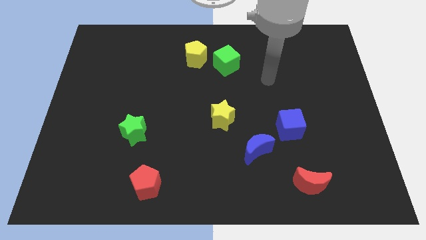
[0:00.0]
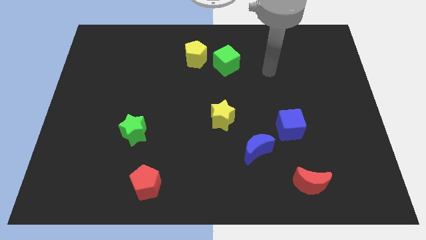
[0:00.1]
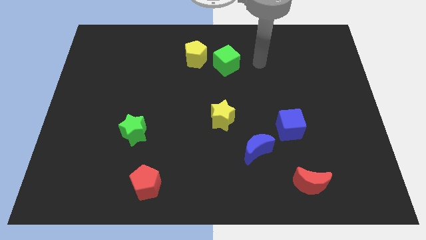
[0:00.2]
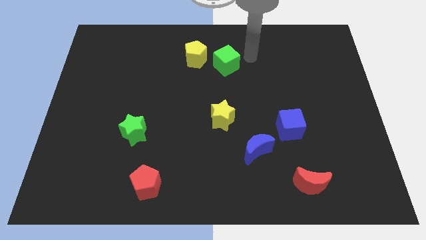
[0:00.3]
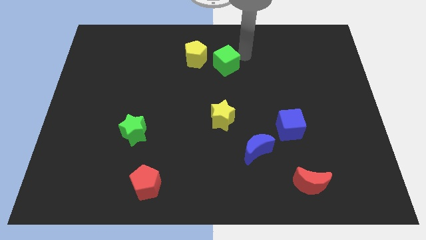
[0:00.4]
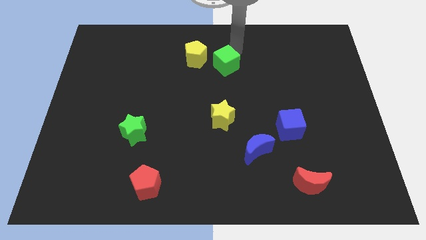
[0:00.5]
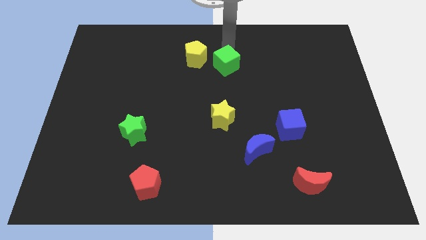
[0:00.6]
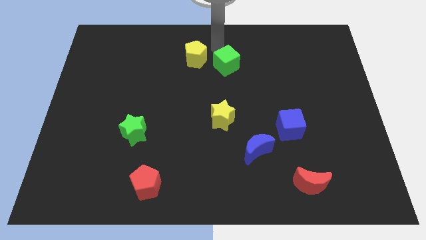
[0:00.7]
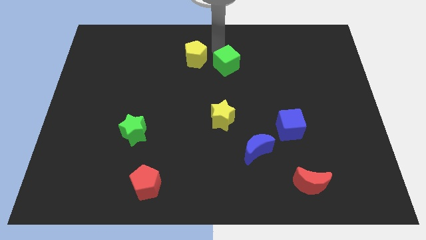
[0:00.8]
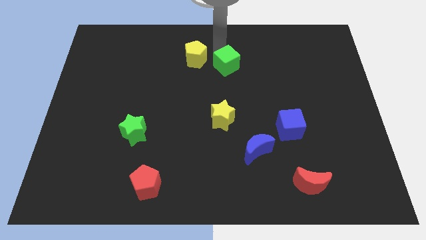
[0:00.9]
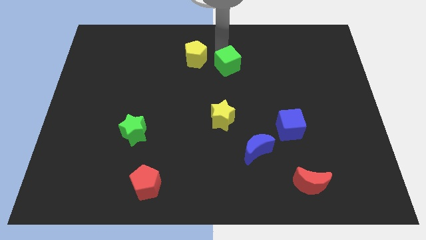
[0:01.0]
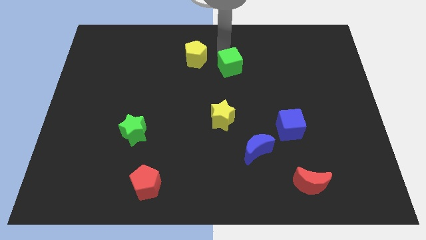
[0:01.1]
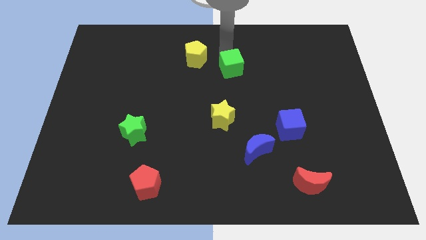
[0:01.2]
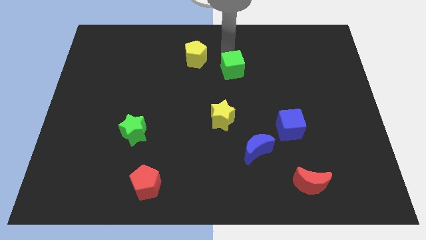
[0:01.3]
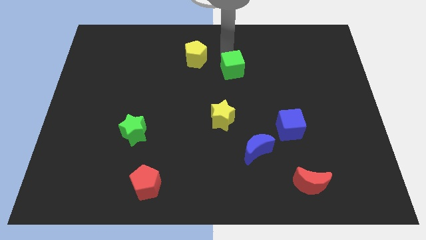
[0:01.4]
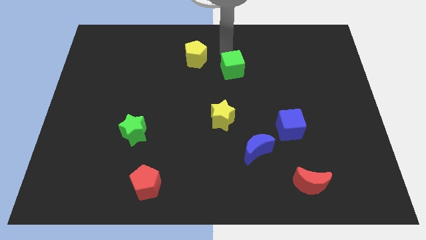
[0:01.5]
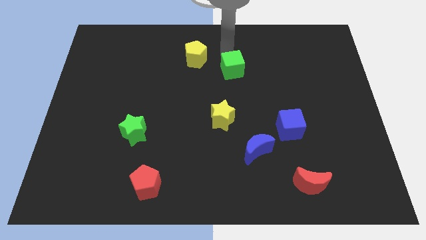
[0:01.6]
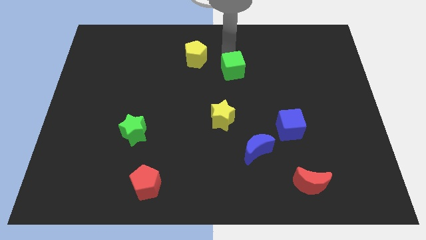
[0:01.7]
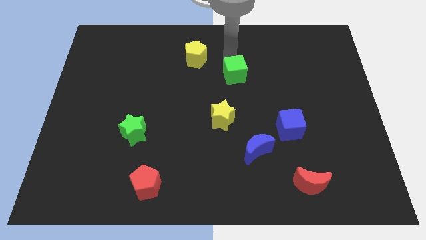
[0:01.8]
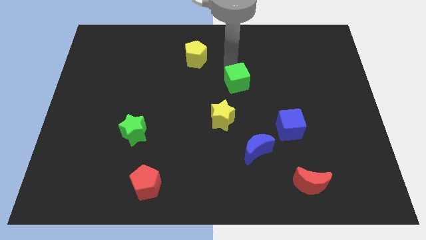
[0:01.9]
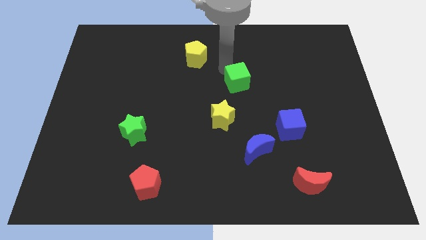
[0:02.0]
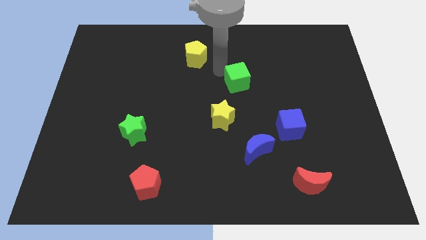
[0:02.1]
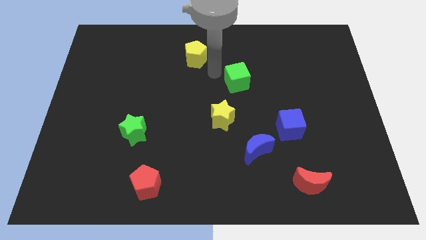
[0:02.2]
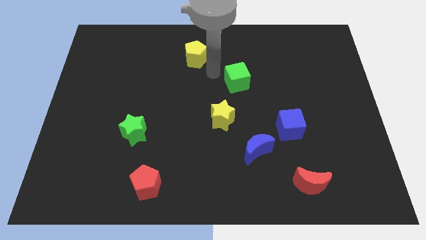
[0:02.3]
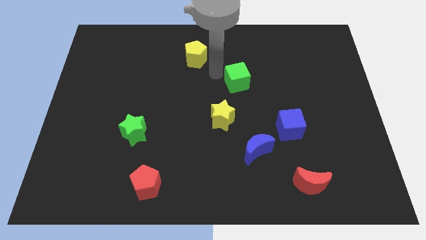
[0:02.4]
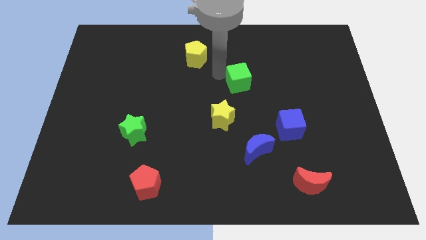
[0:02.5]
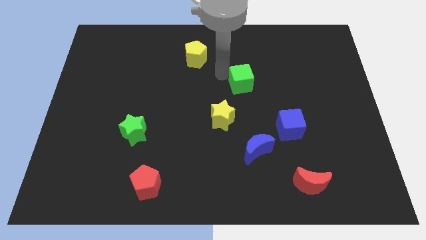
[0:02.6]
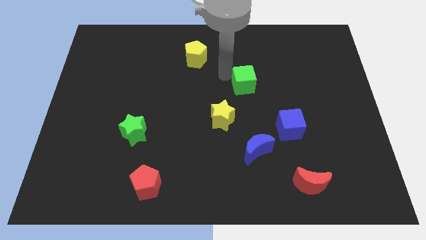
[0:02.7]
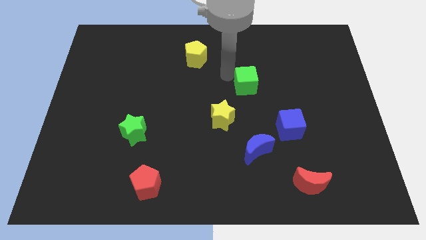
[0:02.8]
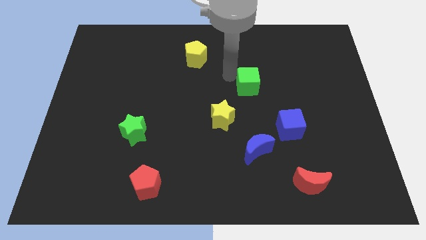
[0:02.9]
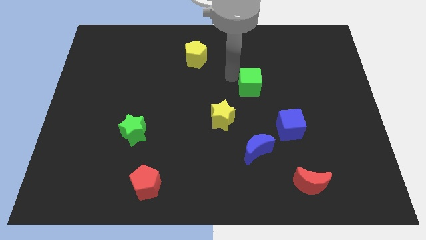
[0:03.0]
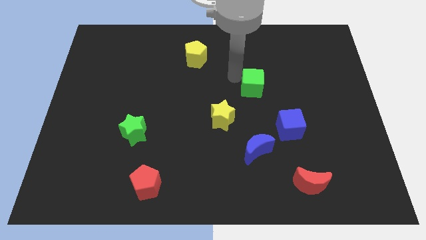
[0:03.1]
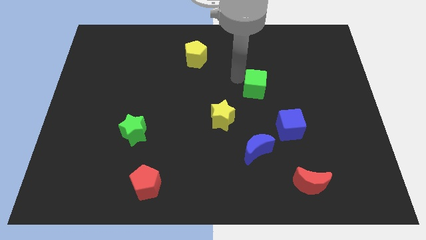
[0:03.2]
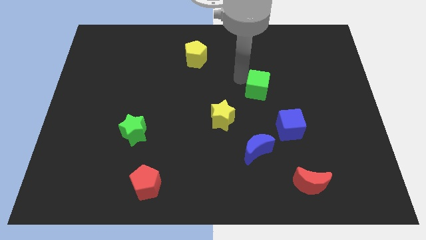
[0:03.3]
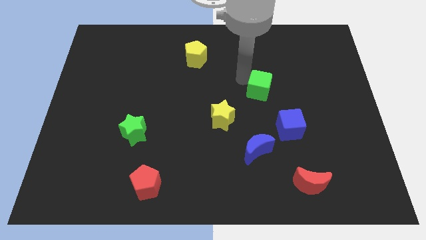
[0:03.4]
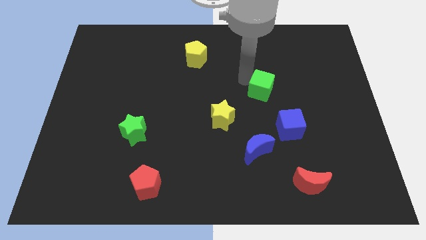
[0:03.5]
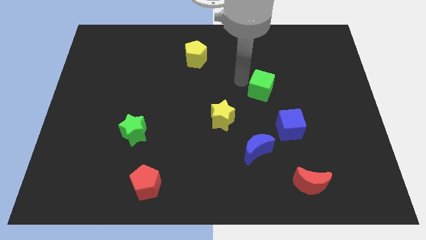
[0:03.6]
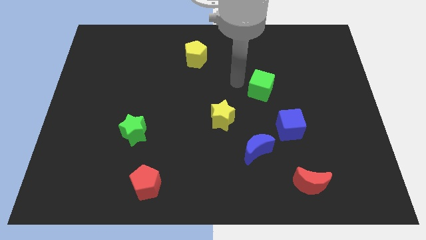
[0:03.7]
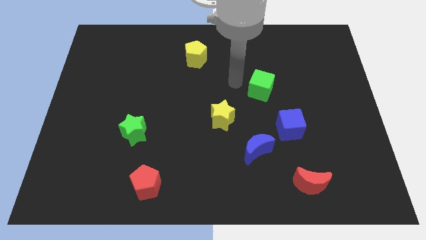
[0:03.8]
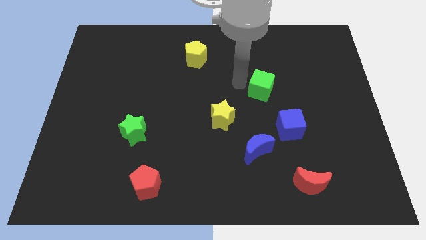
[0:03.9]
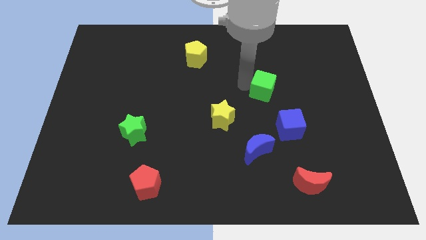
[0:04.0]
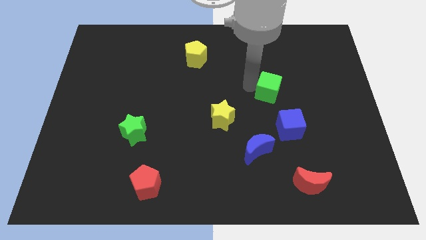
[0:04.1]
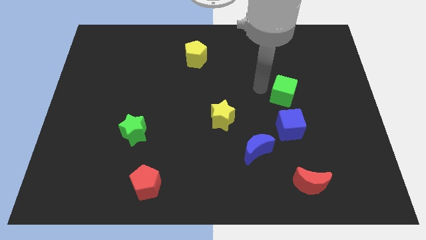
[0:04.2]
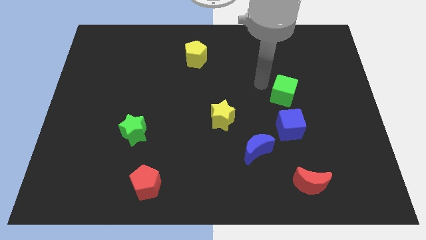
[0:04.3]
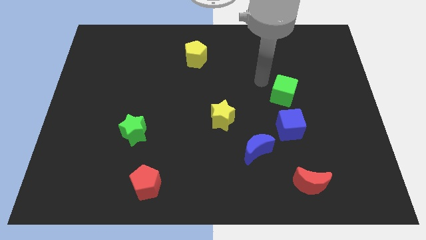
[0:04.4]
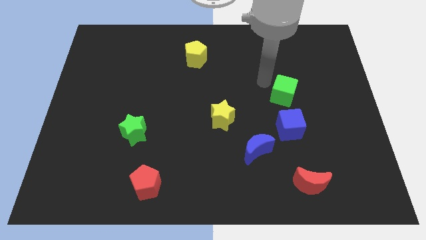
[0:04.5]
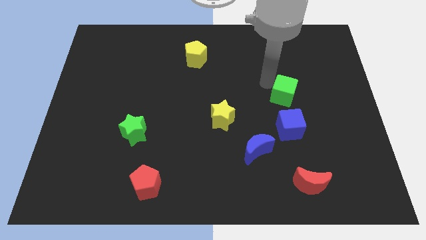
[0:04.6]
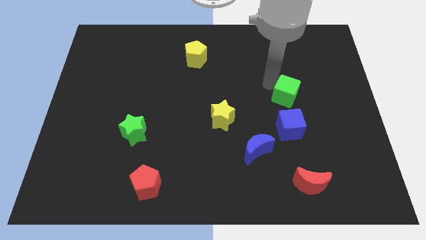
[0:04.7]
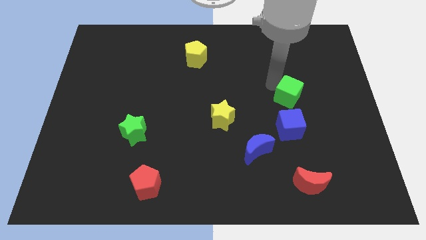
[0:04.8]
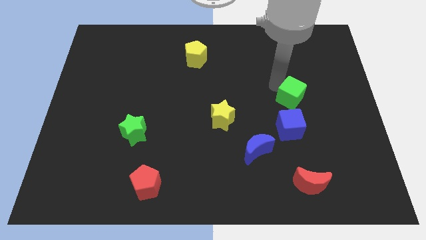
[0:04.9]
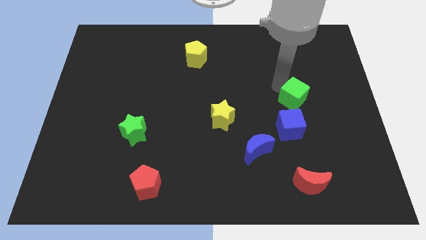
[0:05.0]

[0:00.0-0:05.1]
slide the green cube to the top right side of the blue cube

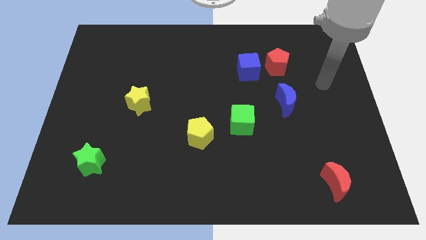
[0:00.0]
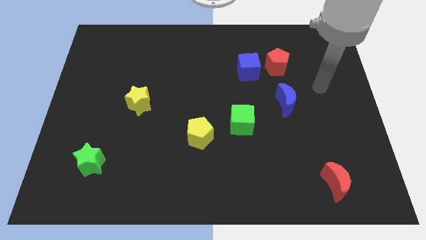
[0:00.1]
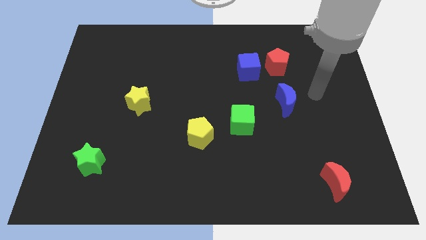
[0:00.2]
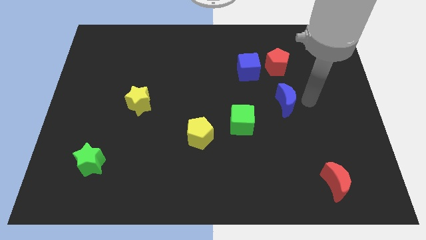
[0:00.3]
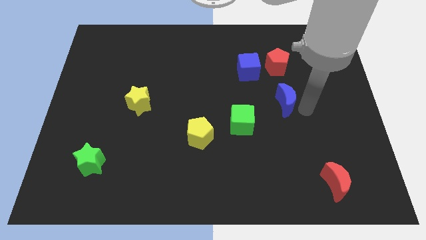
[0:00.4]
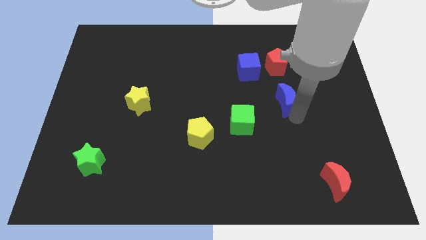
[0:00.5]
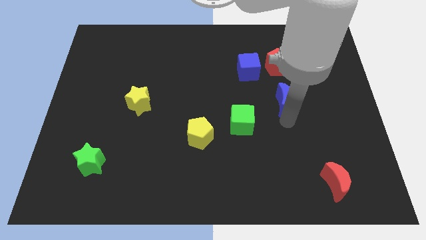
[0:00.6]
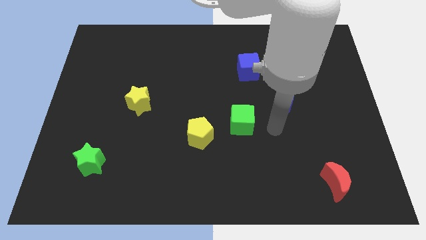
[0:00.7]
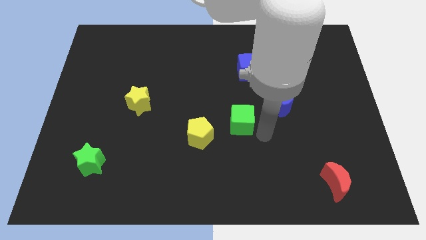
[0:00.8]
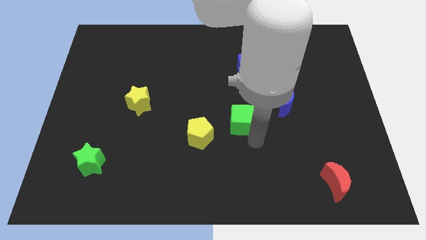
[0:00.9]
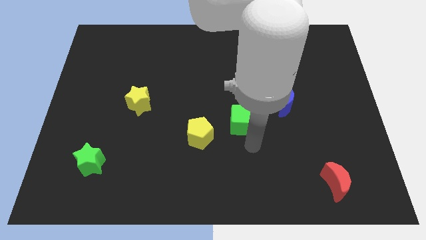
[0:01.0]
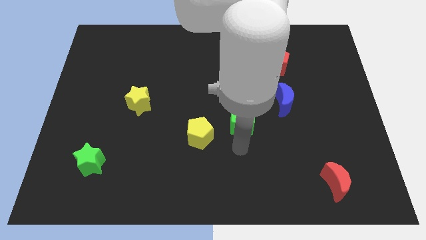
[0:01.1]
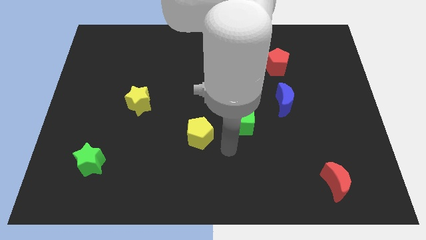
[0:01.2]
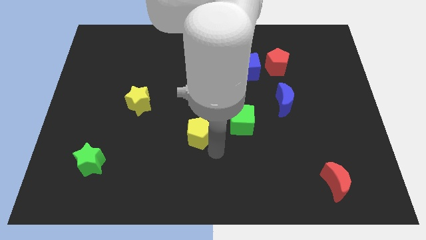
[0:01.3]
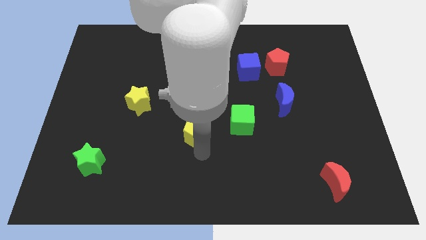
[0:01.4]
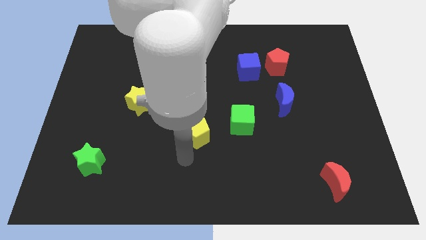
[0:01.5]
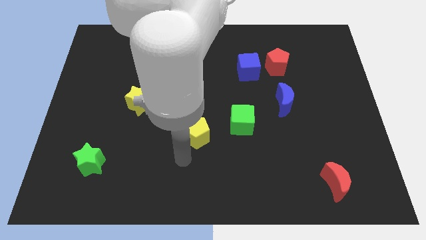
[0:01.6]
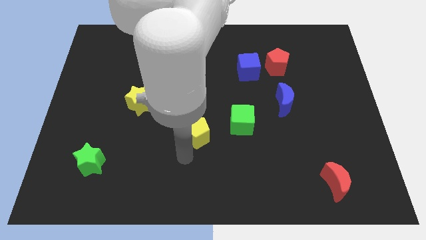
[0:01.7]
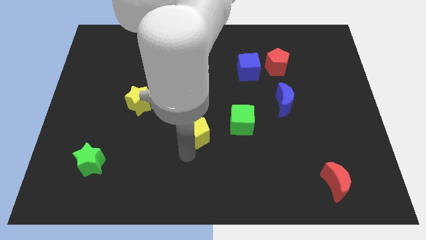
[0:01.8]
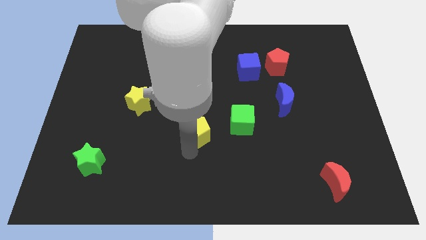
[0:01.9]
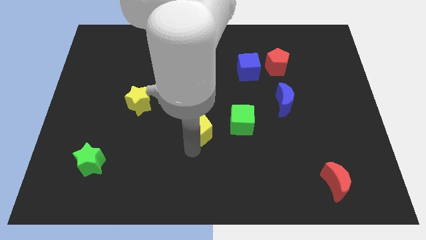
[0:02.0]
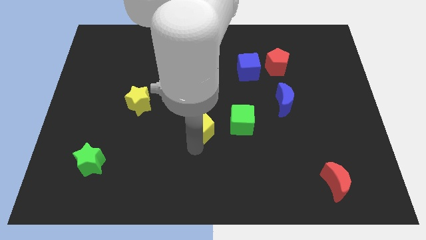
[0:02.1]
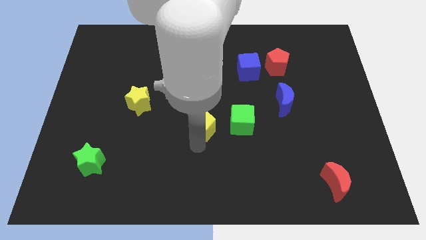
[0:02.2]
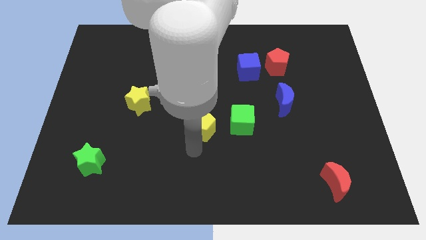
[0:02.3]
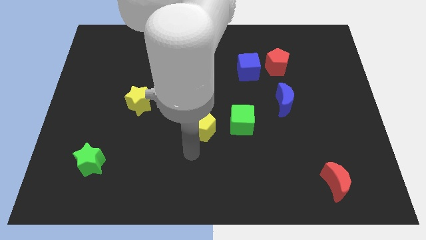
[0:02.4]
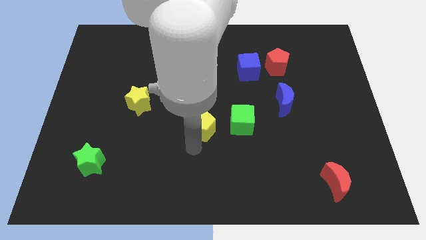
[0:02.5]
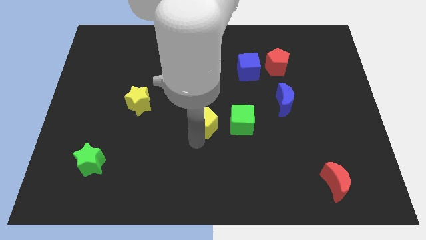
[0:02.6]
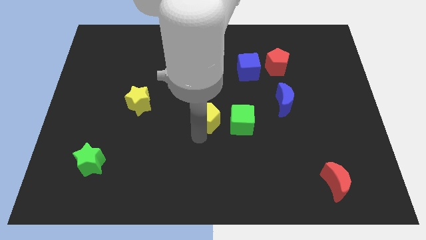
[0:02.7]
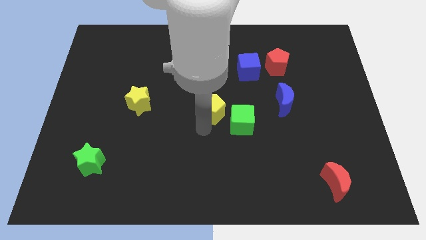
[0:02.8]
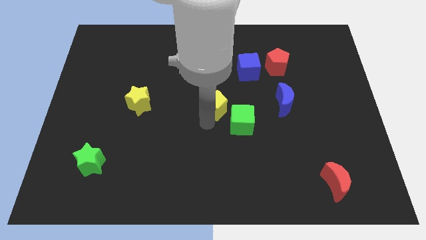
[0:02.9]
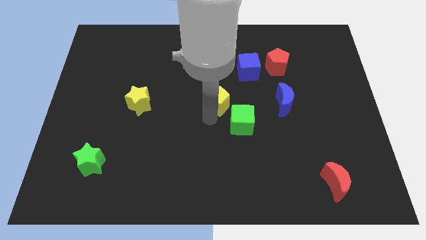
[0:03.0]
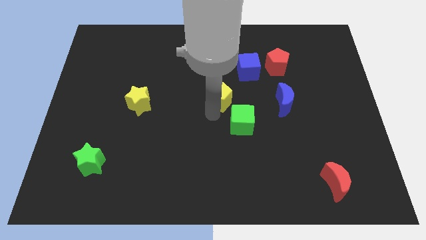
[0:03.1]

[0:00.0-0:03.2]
push the yellow pentagon to the bottom left side of the blue cube
